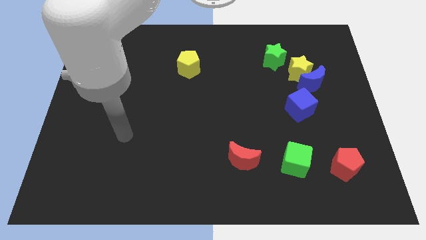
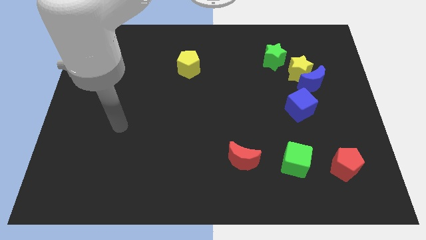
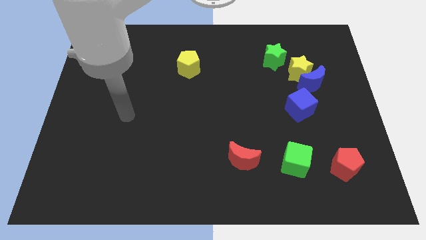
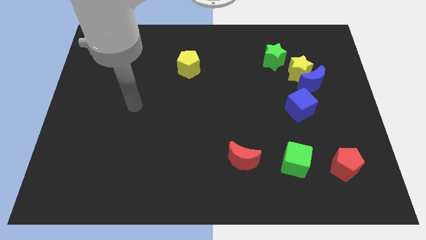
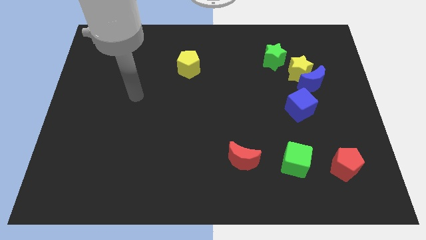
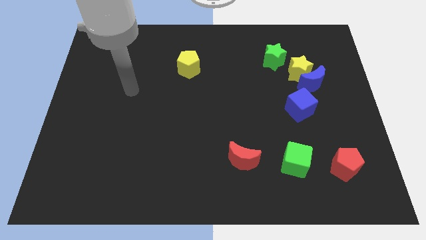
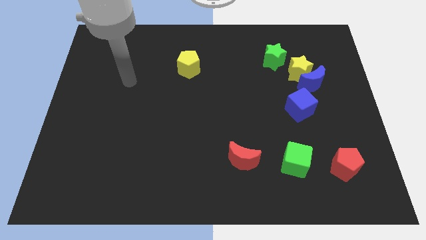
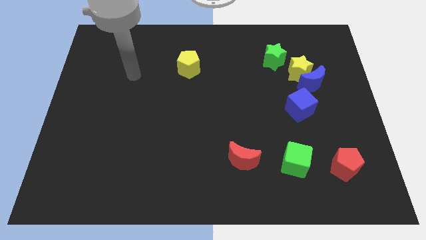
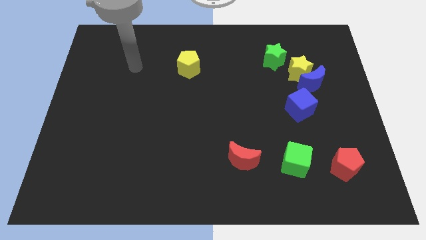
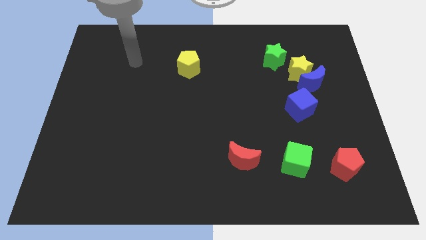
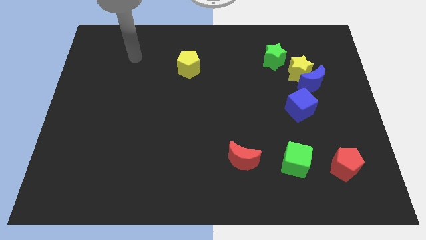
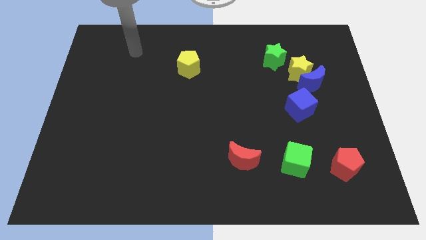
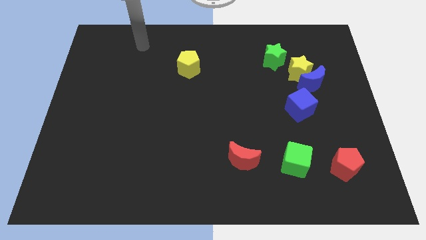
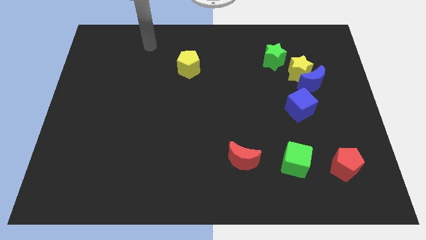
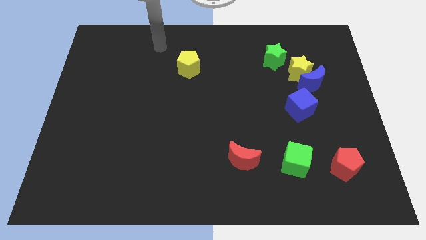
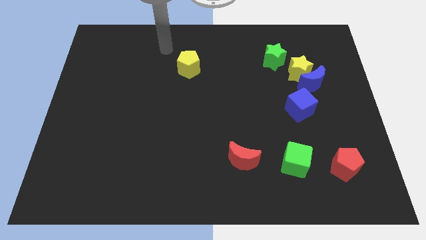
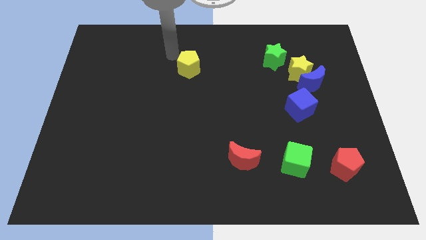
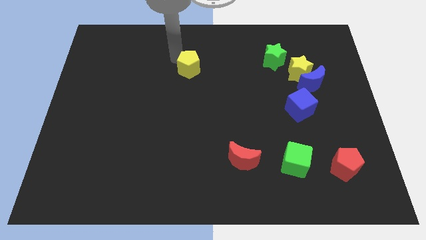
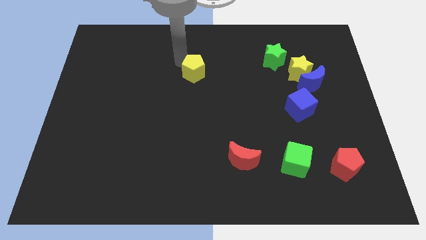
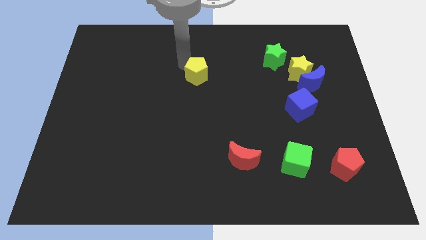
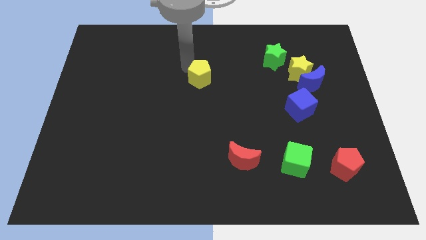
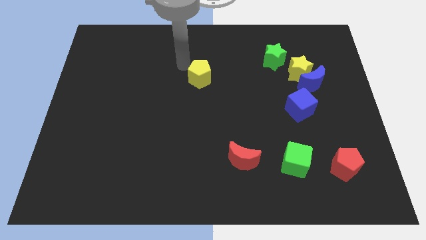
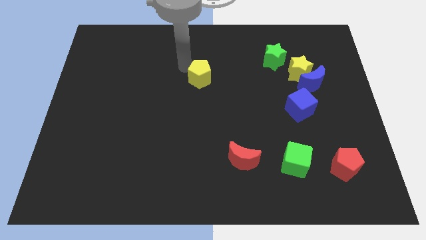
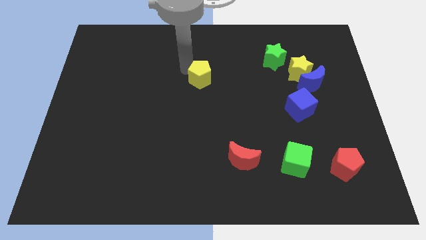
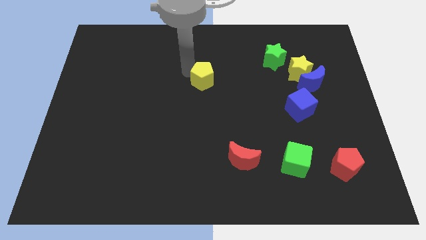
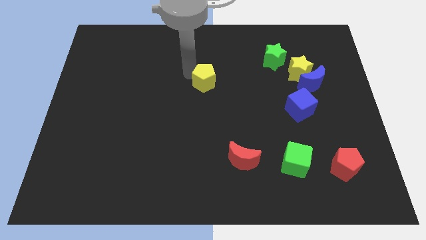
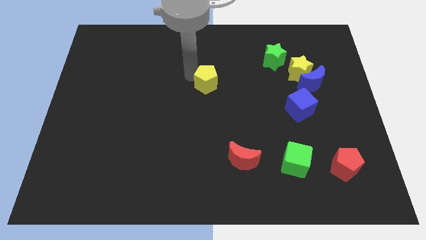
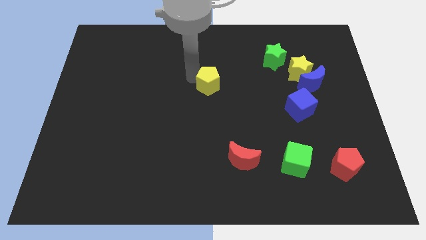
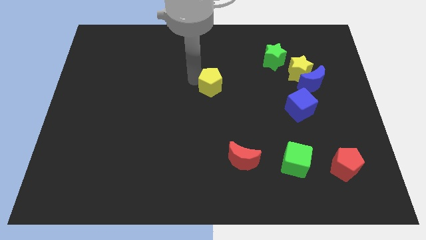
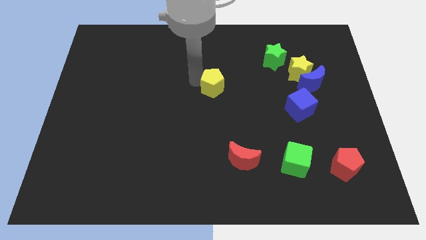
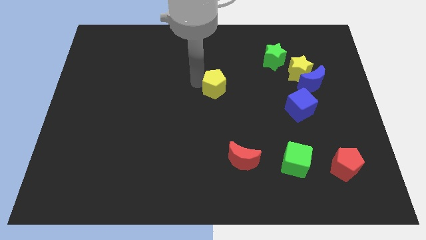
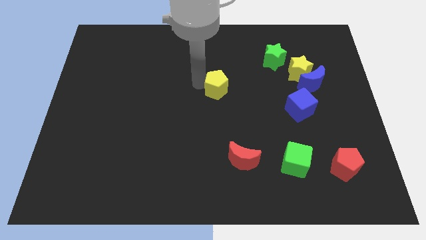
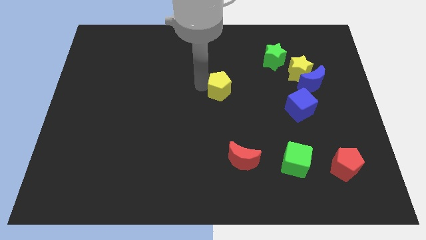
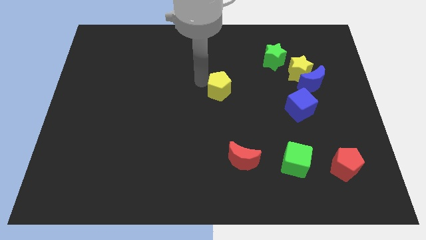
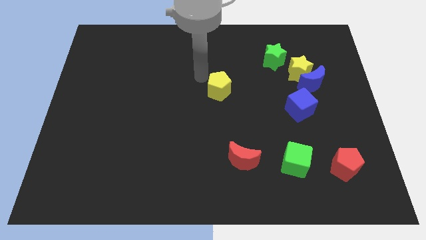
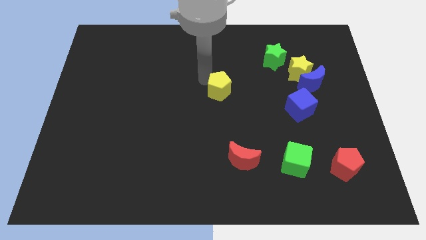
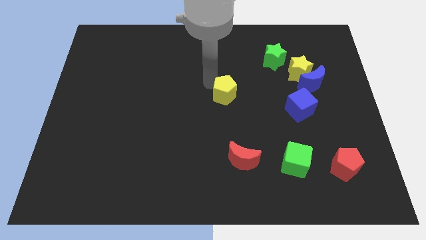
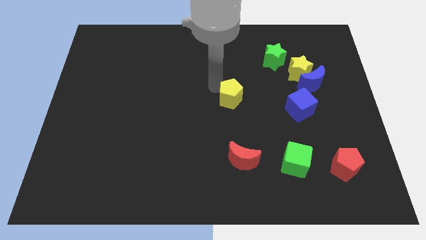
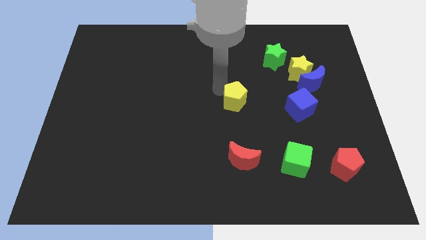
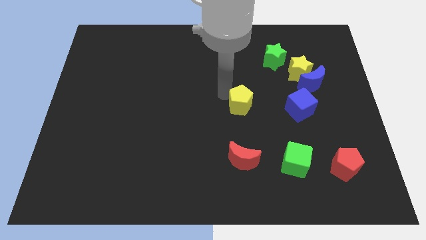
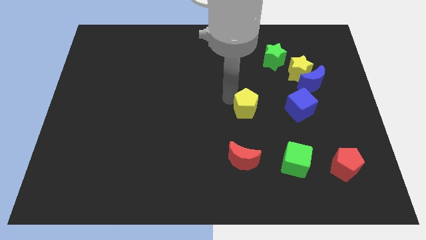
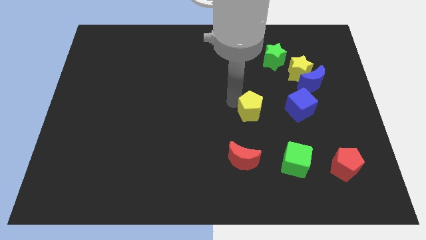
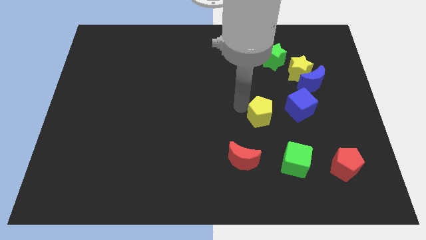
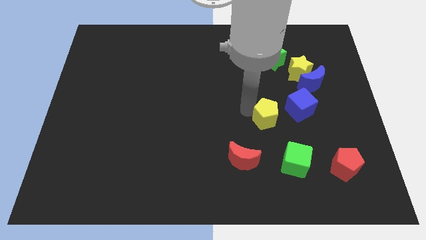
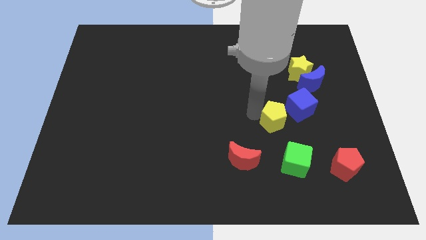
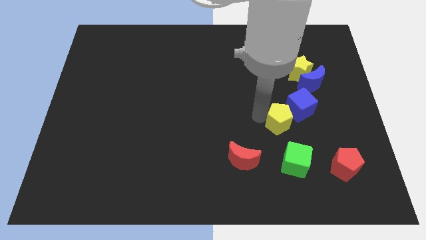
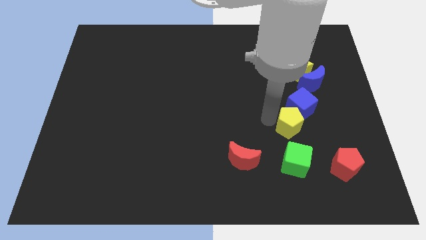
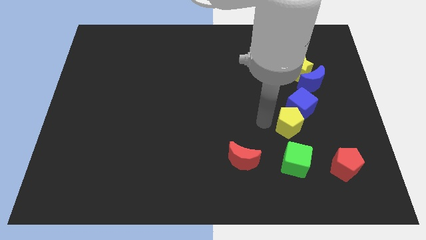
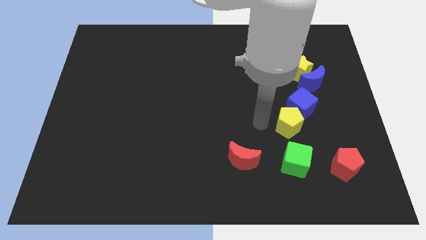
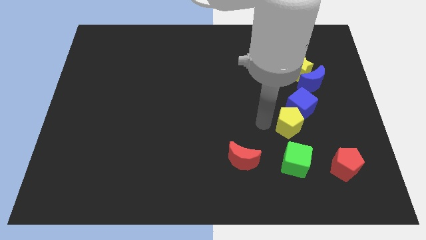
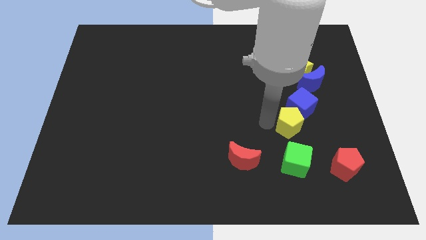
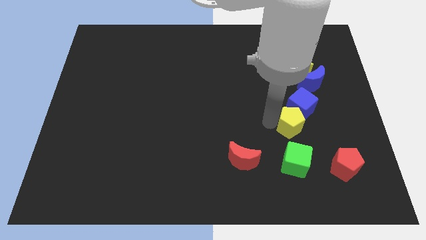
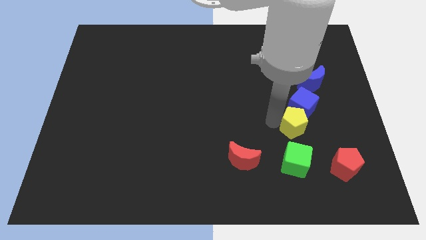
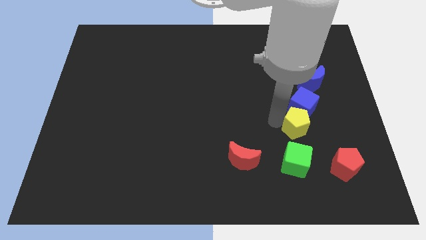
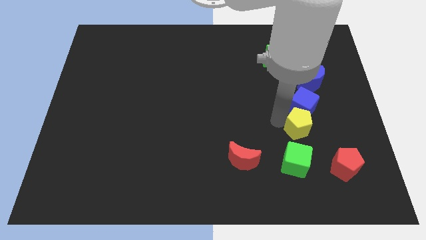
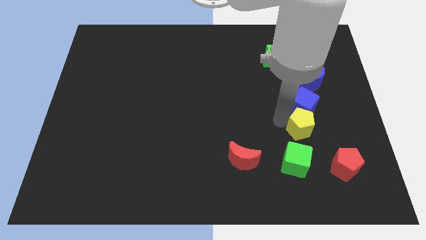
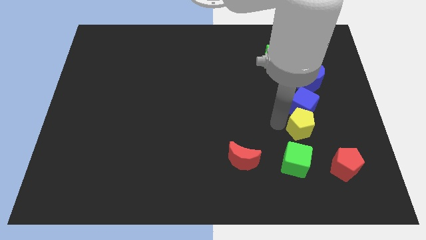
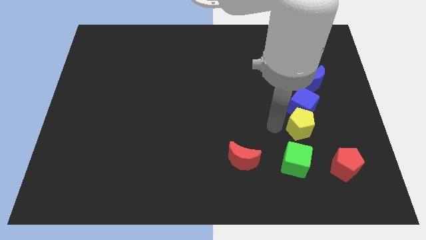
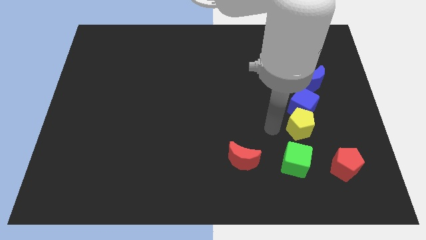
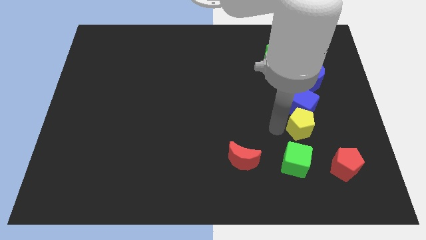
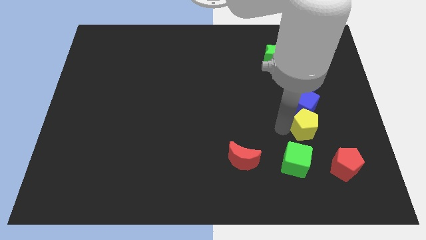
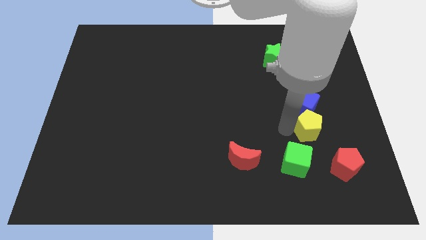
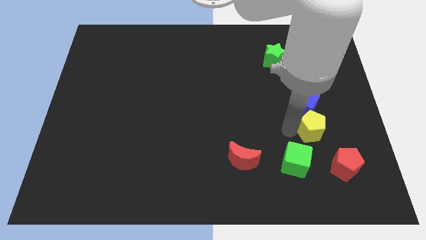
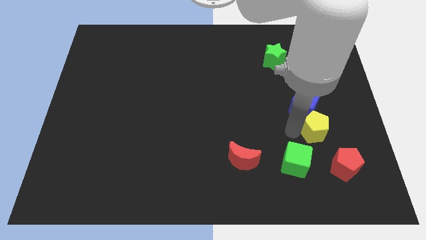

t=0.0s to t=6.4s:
slide the yellow pentagon above the red pentagon

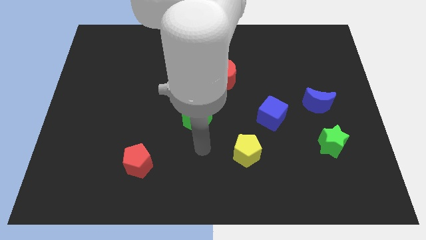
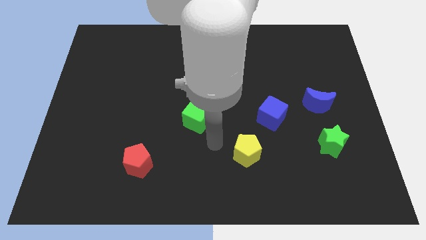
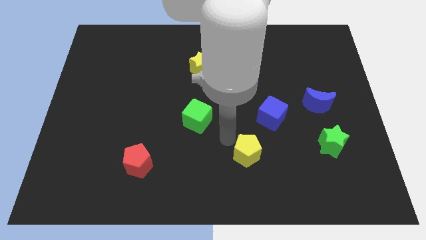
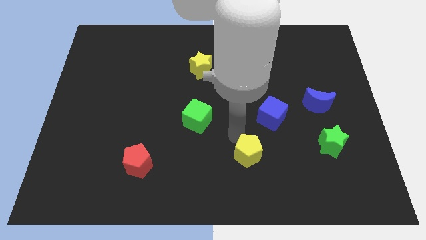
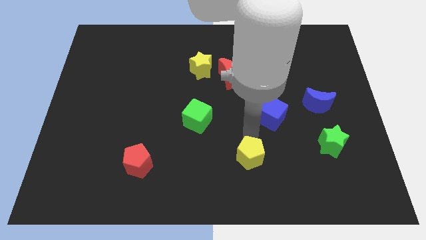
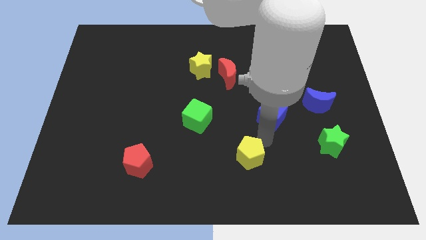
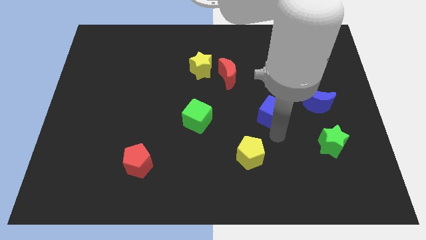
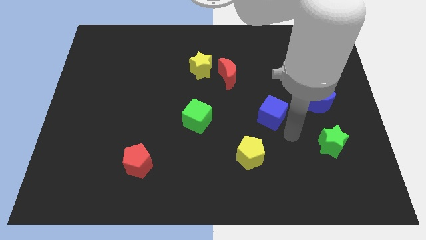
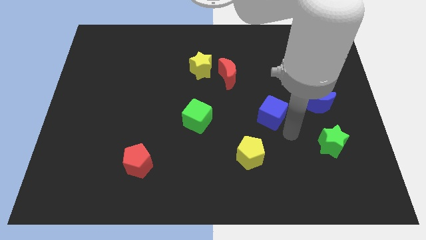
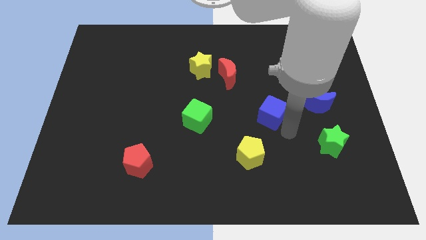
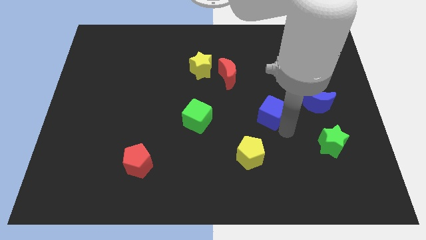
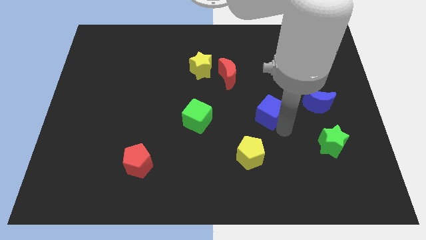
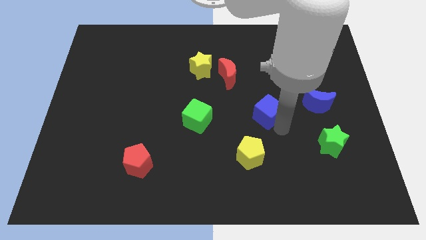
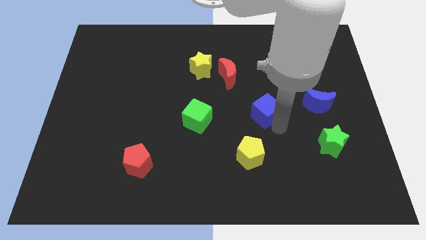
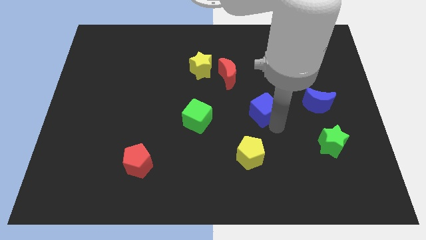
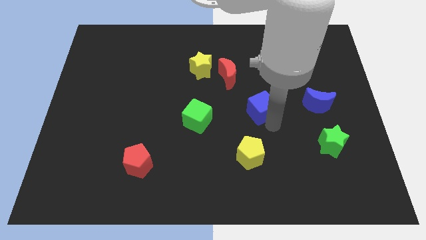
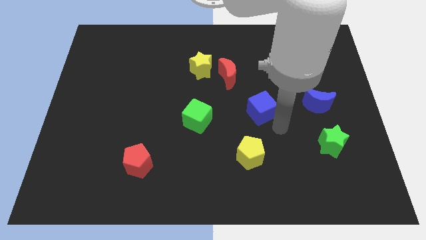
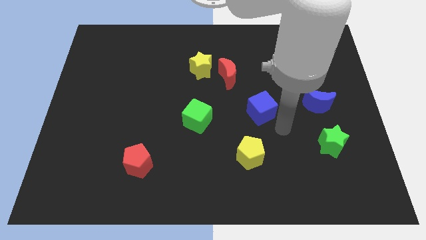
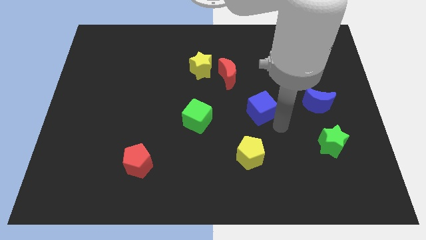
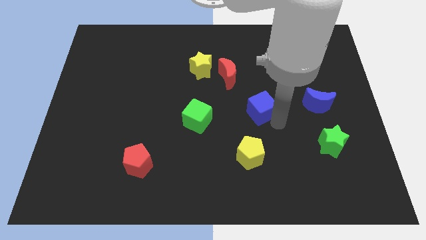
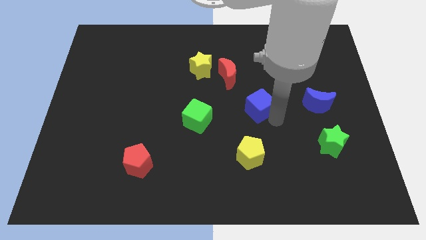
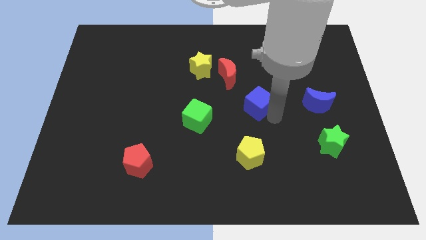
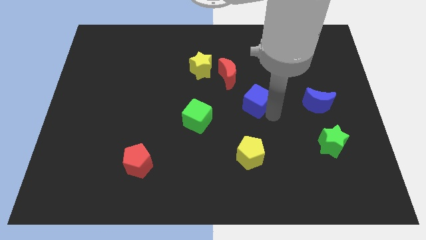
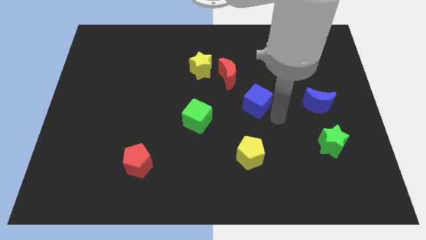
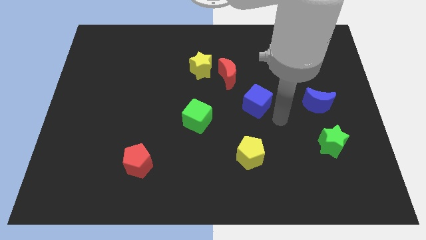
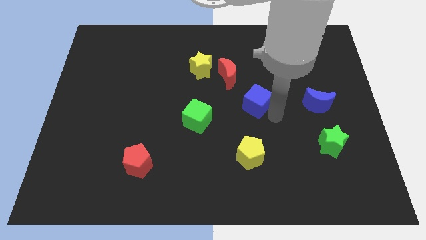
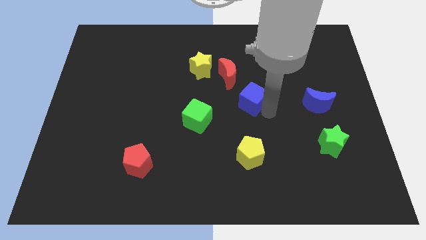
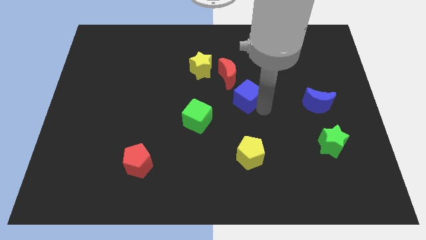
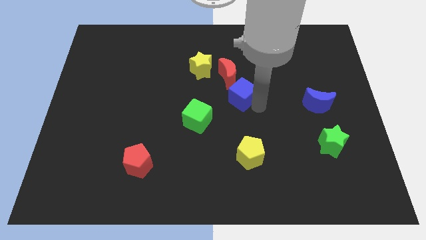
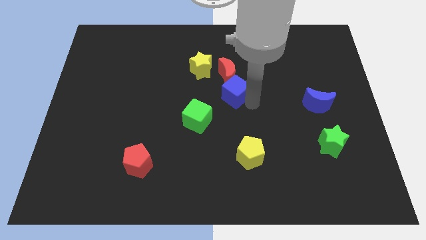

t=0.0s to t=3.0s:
move the blue cube to the bottom right of the yellow star
